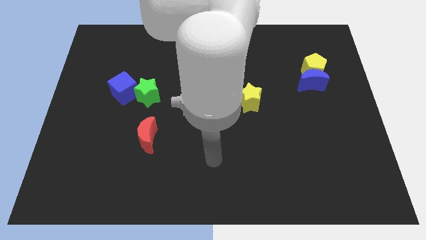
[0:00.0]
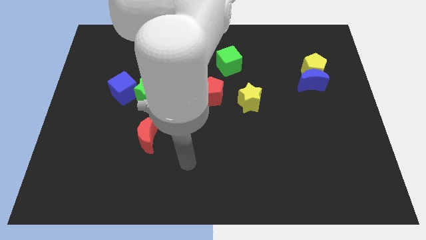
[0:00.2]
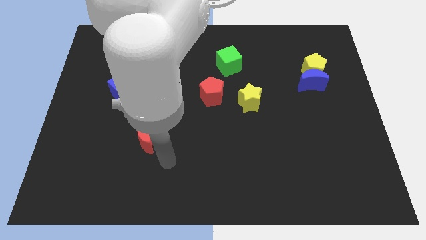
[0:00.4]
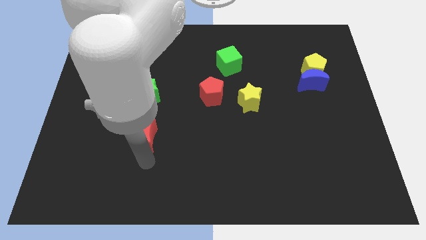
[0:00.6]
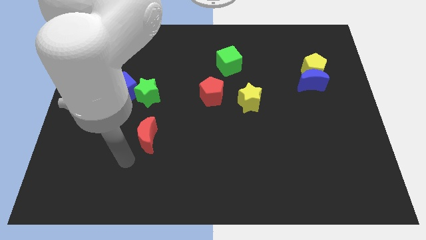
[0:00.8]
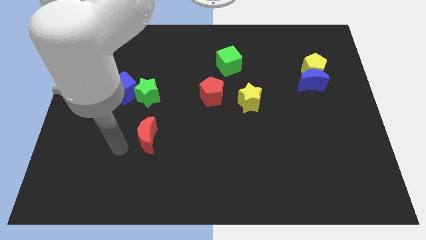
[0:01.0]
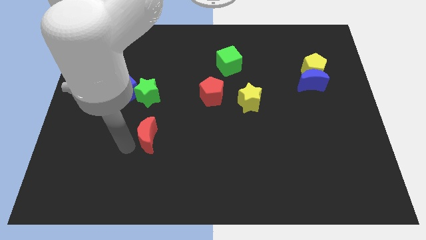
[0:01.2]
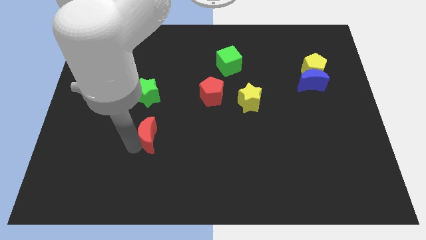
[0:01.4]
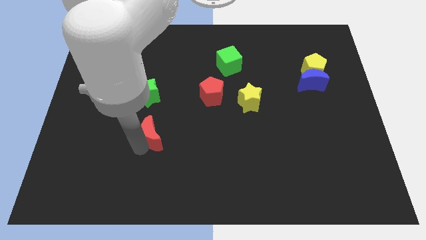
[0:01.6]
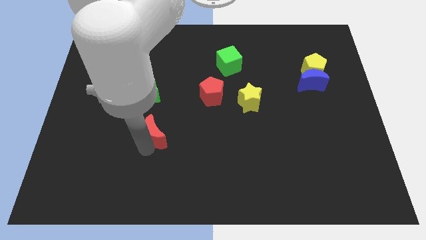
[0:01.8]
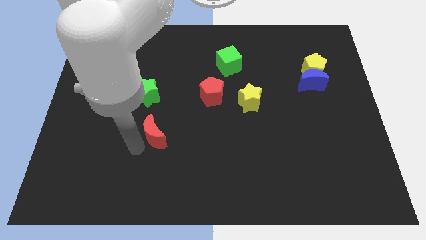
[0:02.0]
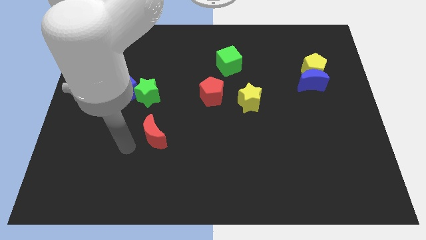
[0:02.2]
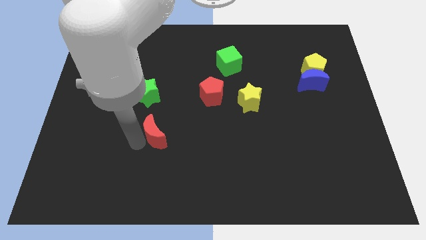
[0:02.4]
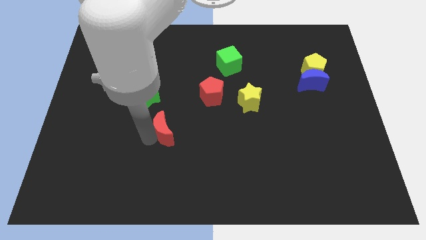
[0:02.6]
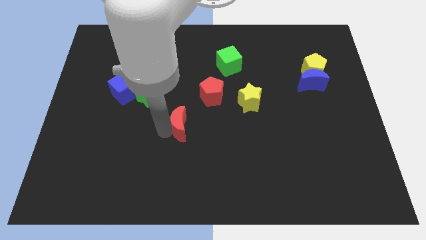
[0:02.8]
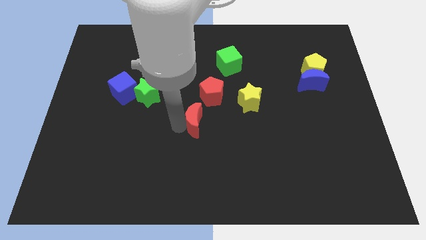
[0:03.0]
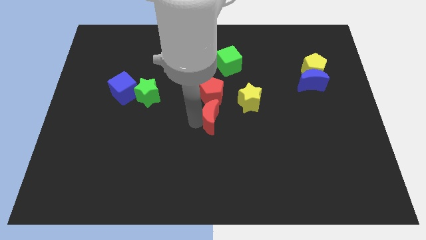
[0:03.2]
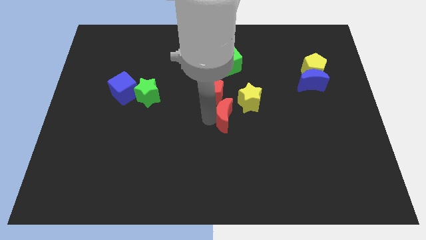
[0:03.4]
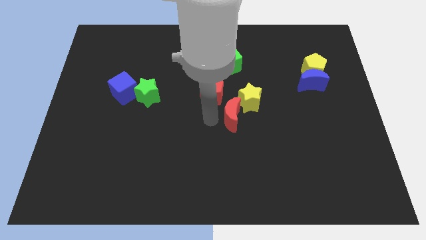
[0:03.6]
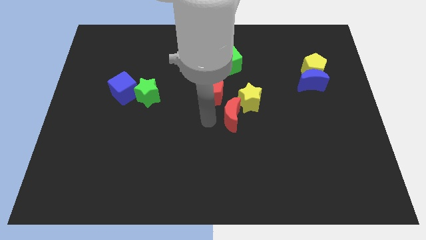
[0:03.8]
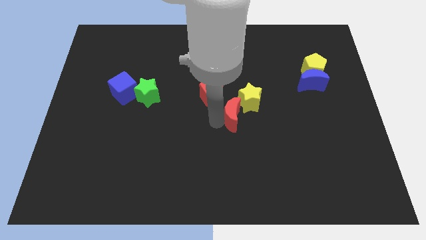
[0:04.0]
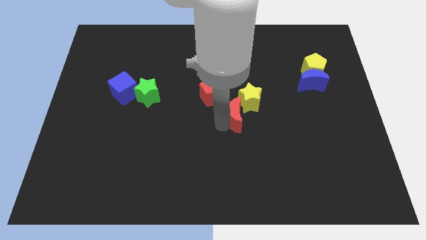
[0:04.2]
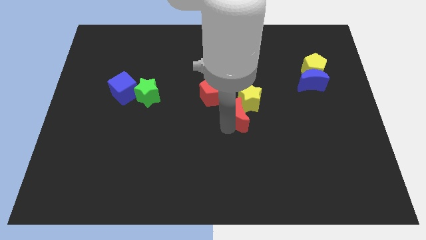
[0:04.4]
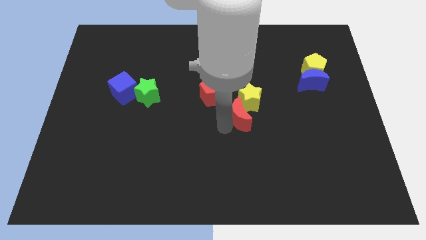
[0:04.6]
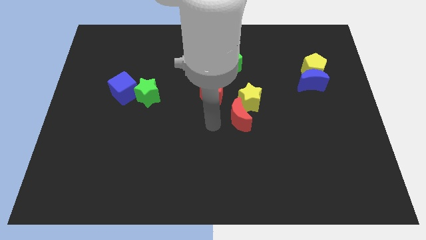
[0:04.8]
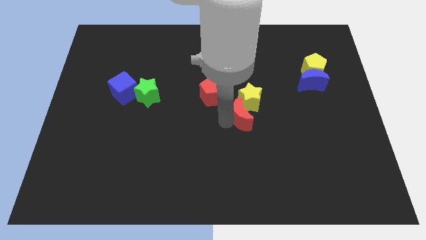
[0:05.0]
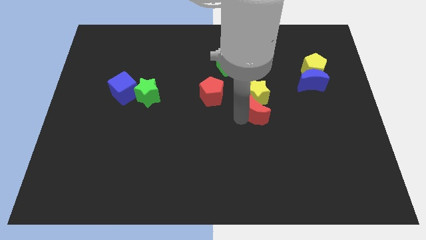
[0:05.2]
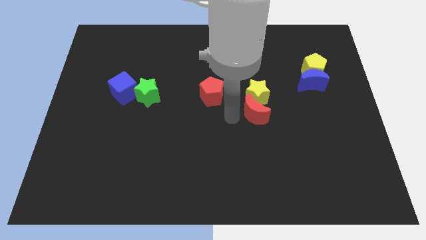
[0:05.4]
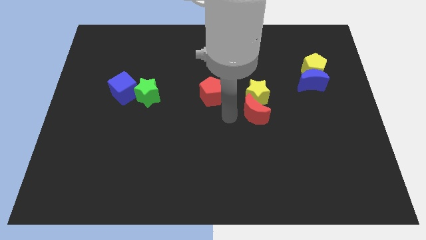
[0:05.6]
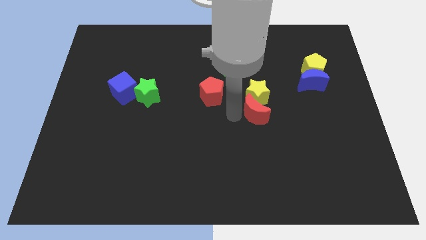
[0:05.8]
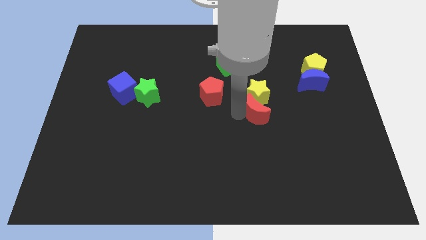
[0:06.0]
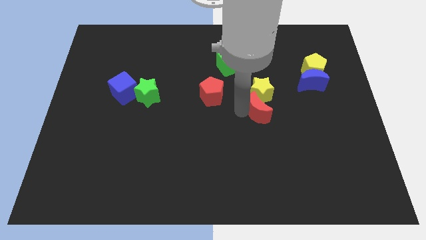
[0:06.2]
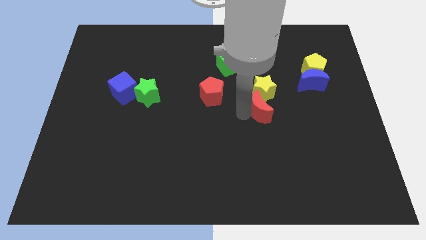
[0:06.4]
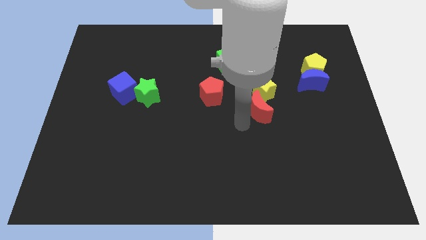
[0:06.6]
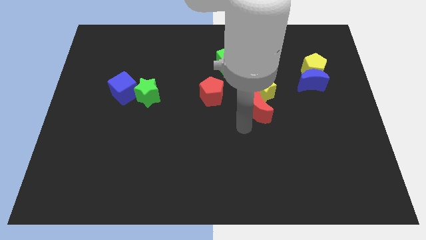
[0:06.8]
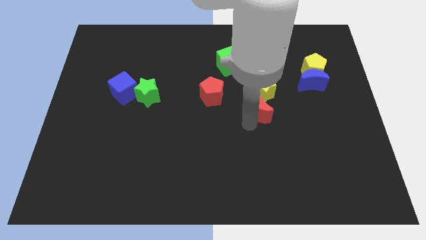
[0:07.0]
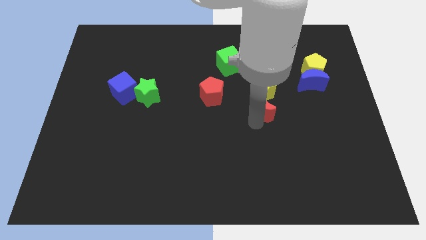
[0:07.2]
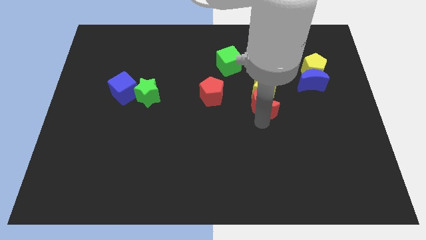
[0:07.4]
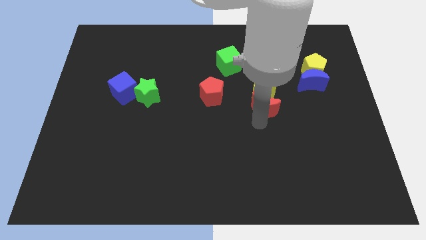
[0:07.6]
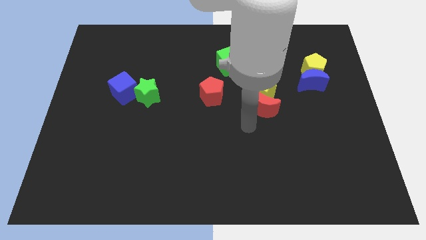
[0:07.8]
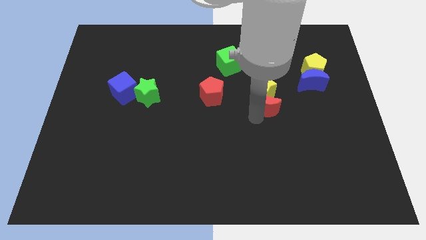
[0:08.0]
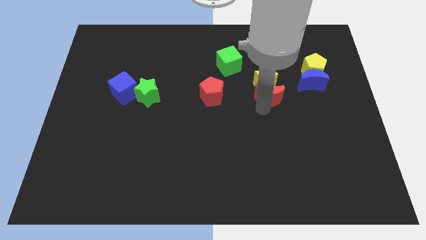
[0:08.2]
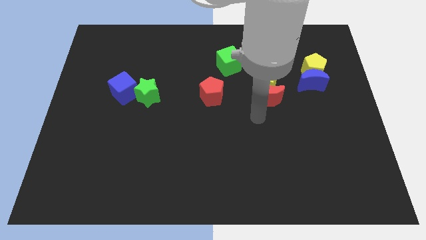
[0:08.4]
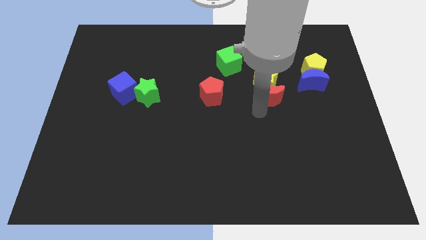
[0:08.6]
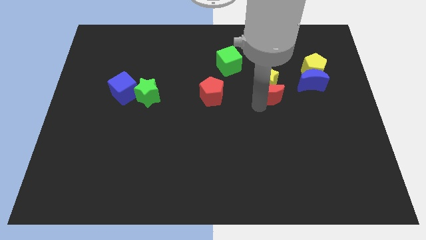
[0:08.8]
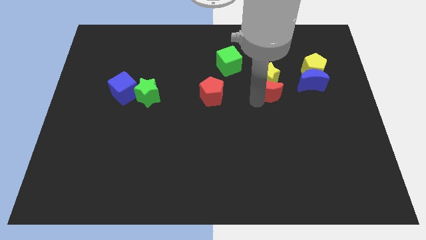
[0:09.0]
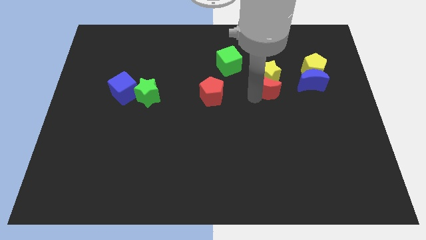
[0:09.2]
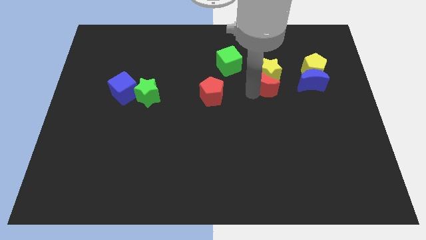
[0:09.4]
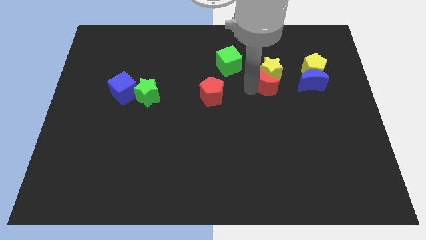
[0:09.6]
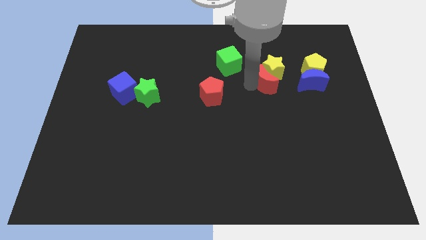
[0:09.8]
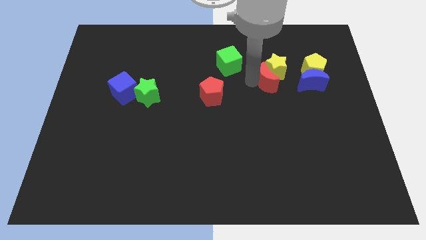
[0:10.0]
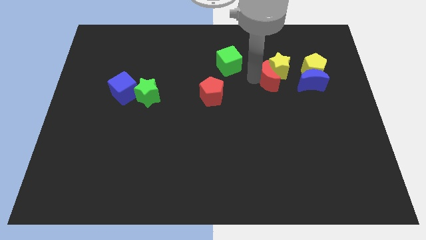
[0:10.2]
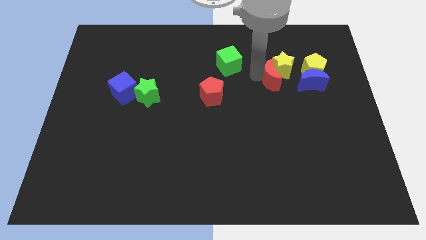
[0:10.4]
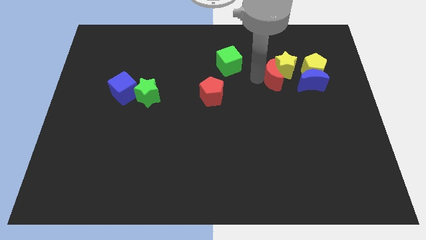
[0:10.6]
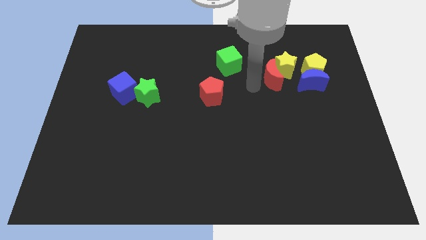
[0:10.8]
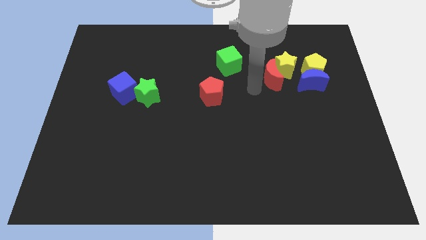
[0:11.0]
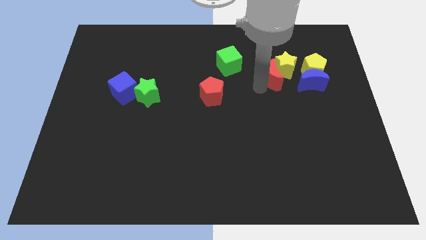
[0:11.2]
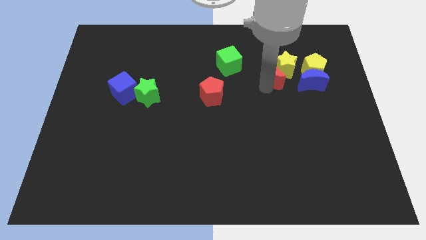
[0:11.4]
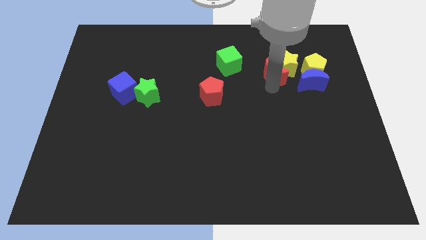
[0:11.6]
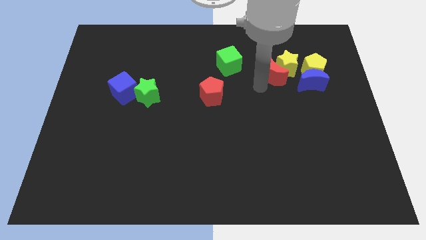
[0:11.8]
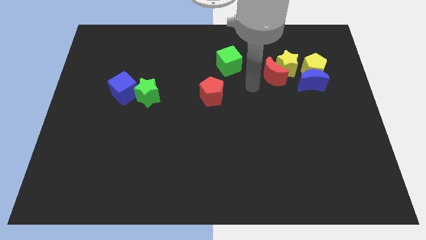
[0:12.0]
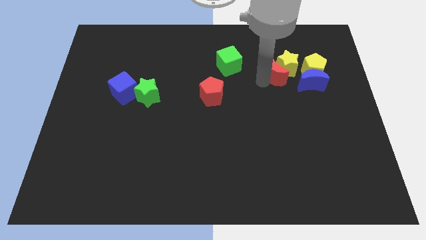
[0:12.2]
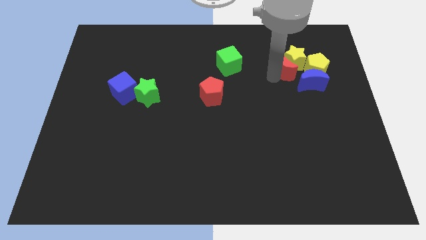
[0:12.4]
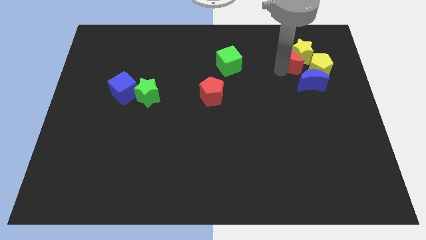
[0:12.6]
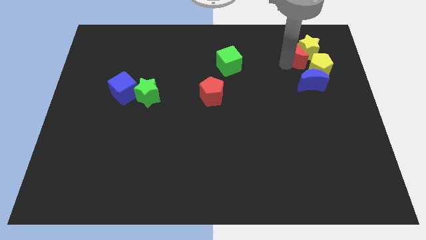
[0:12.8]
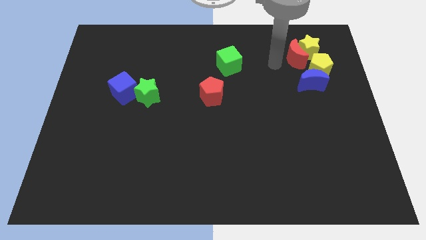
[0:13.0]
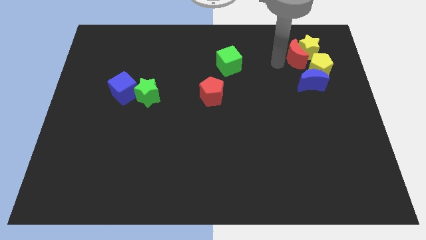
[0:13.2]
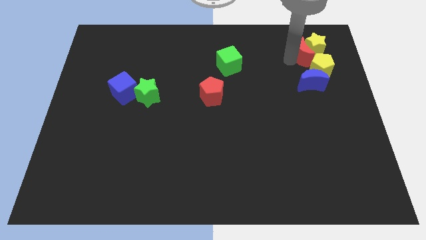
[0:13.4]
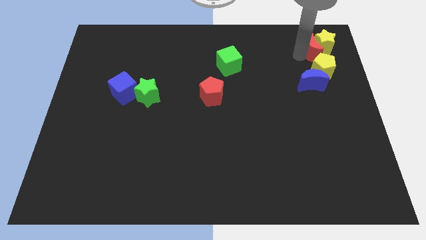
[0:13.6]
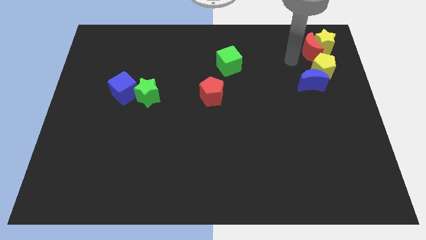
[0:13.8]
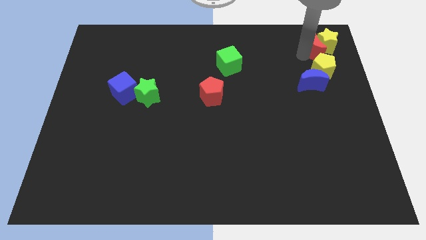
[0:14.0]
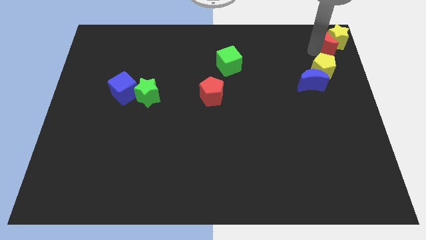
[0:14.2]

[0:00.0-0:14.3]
put the red moon to the upper right corner
